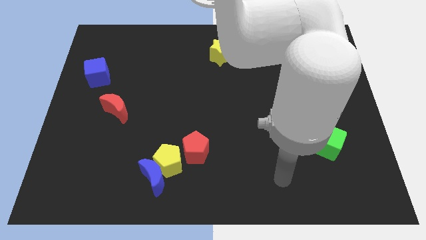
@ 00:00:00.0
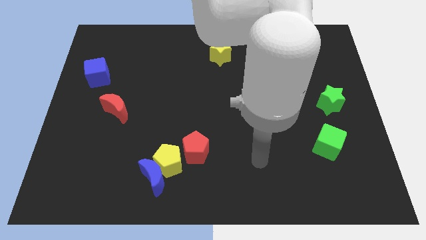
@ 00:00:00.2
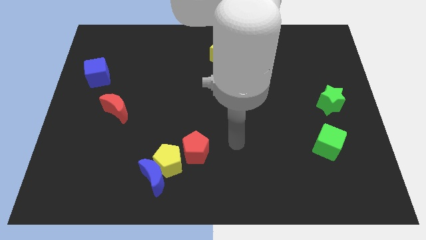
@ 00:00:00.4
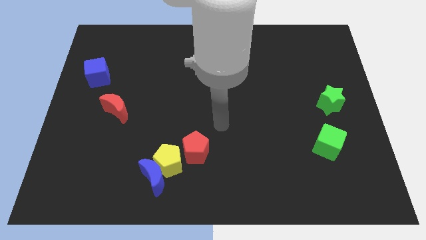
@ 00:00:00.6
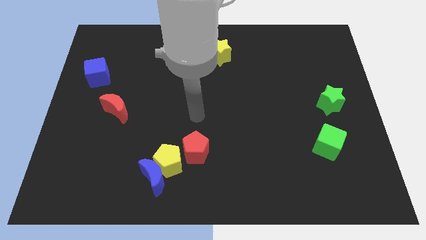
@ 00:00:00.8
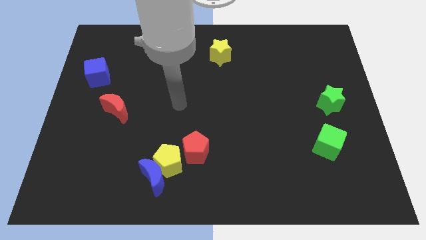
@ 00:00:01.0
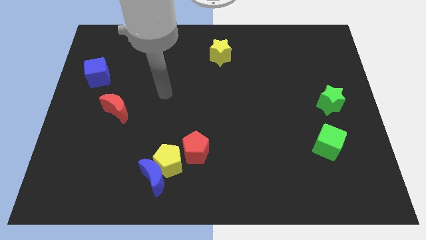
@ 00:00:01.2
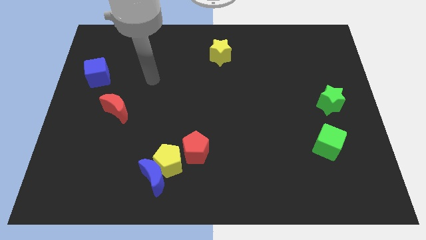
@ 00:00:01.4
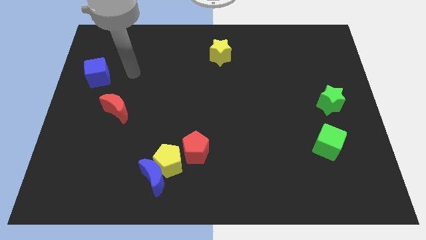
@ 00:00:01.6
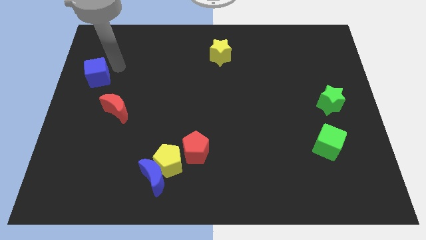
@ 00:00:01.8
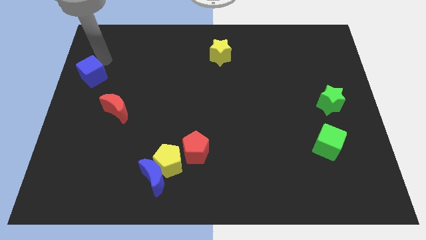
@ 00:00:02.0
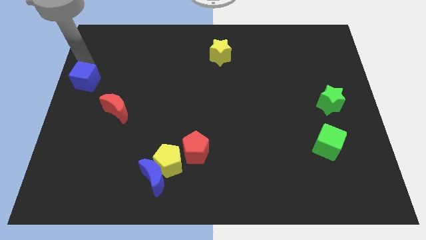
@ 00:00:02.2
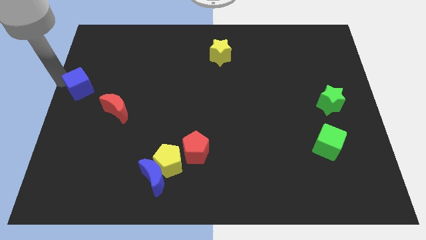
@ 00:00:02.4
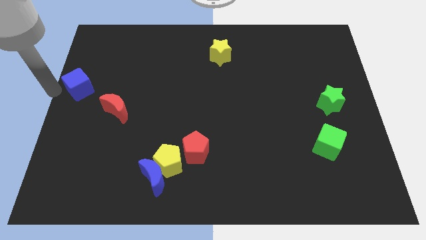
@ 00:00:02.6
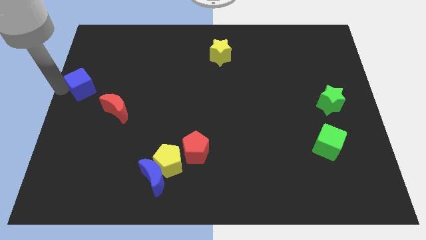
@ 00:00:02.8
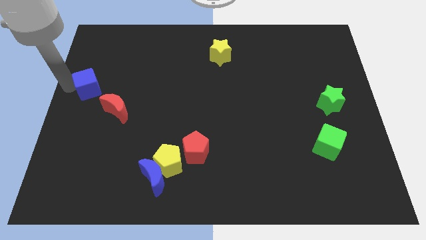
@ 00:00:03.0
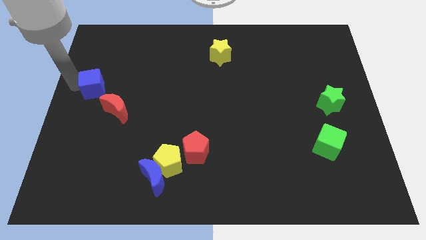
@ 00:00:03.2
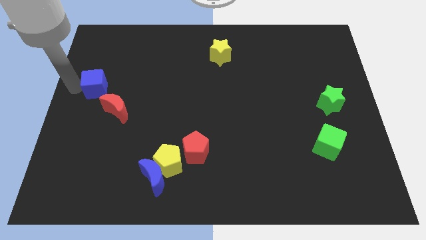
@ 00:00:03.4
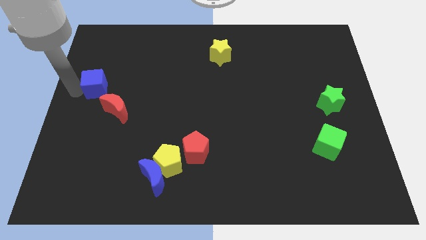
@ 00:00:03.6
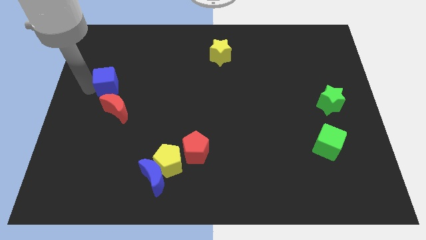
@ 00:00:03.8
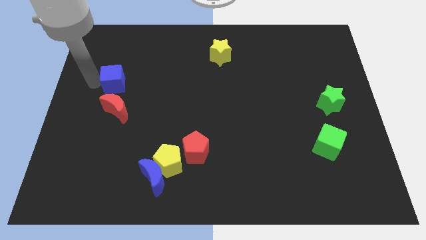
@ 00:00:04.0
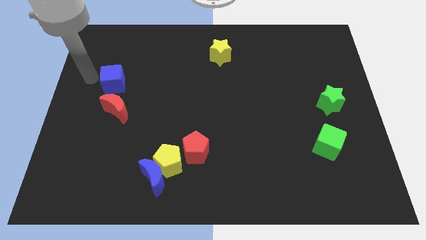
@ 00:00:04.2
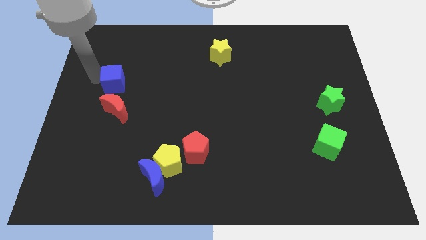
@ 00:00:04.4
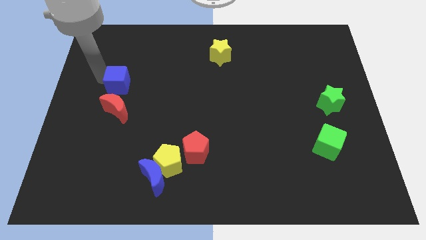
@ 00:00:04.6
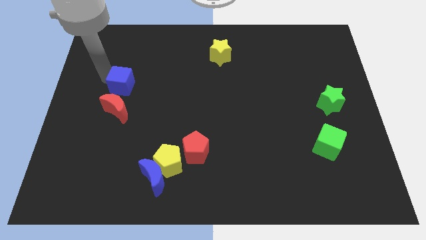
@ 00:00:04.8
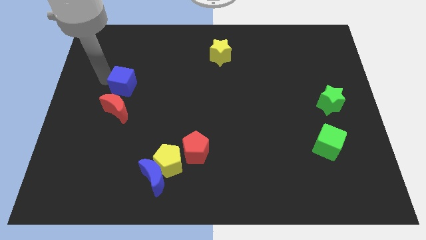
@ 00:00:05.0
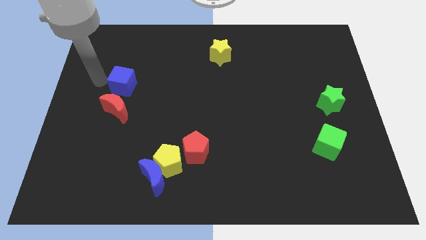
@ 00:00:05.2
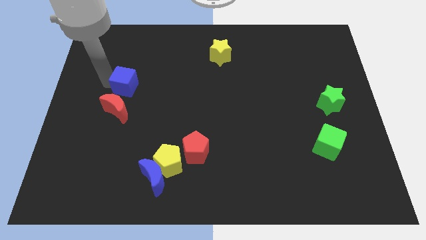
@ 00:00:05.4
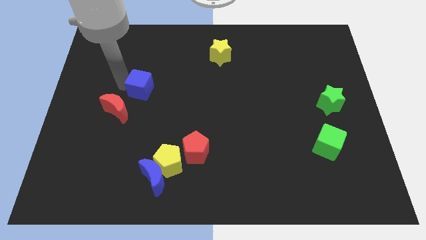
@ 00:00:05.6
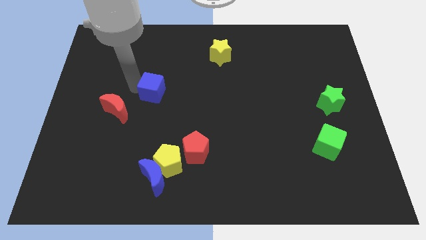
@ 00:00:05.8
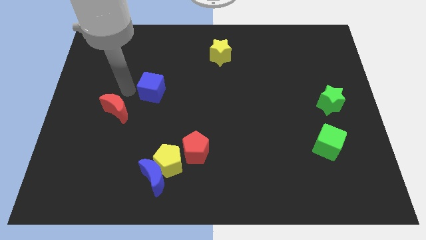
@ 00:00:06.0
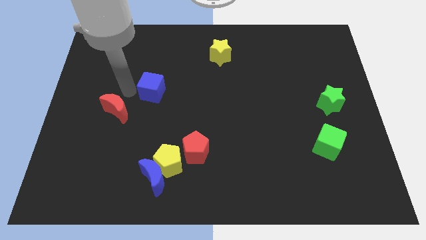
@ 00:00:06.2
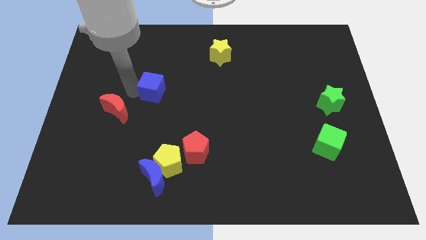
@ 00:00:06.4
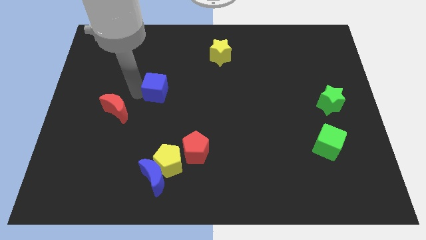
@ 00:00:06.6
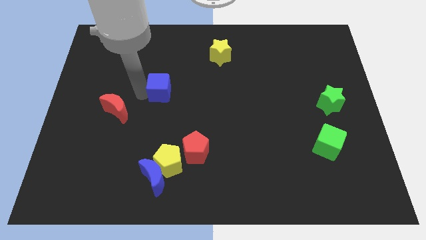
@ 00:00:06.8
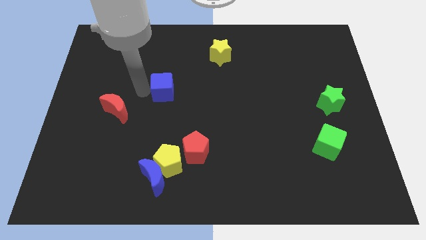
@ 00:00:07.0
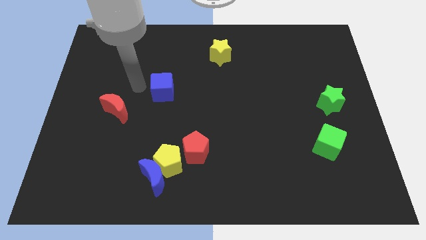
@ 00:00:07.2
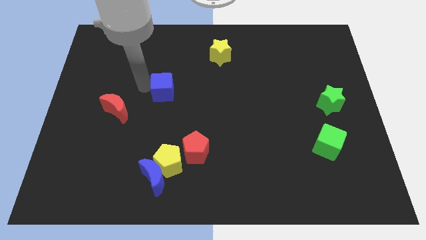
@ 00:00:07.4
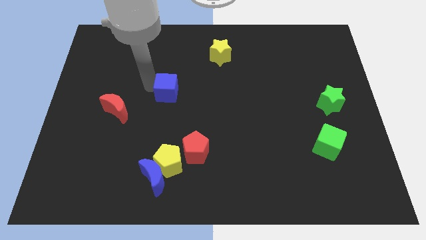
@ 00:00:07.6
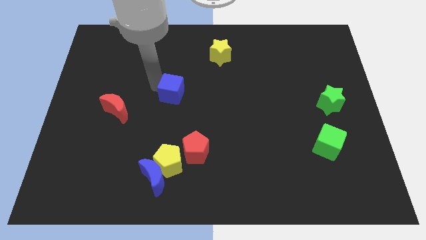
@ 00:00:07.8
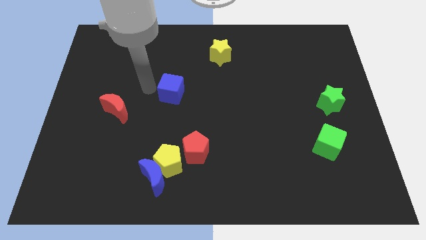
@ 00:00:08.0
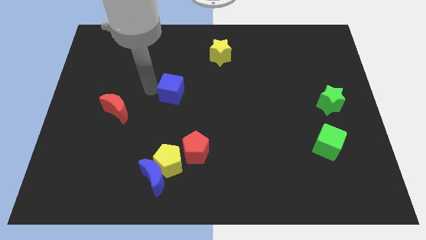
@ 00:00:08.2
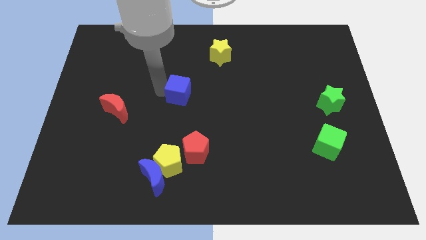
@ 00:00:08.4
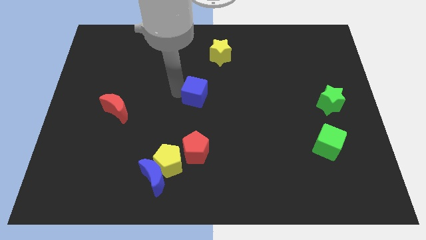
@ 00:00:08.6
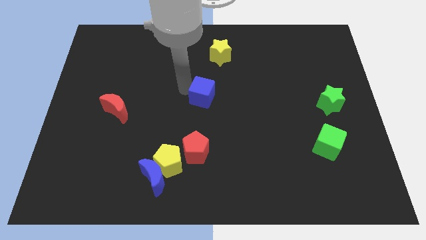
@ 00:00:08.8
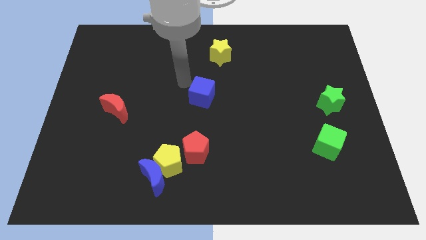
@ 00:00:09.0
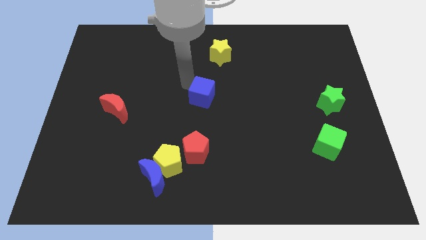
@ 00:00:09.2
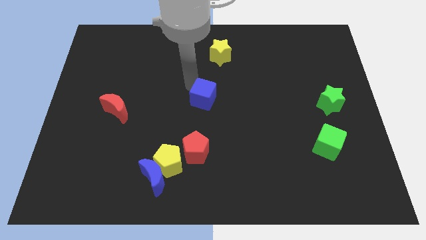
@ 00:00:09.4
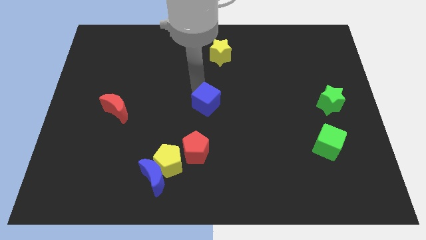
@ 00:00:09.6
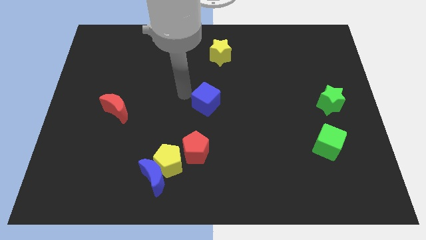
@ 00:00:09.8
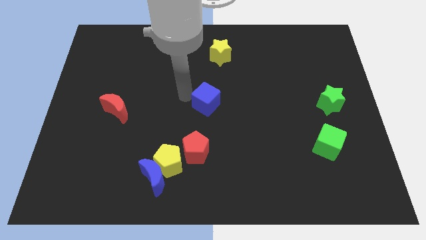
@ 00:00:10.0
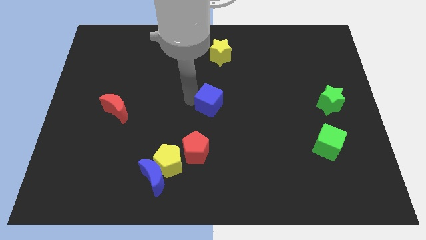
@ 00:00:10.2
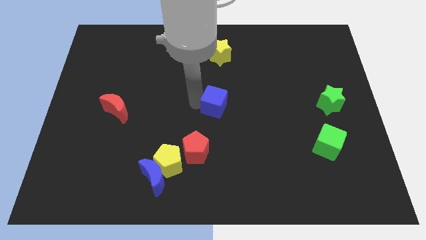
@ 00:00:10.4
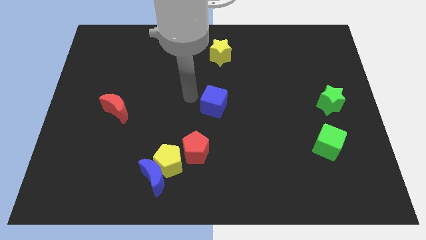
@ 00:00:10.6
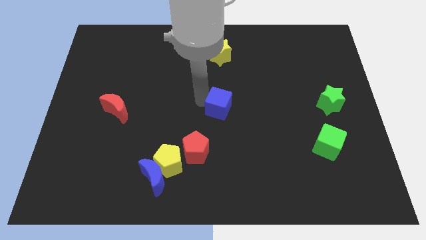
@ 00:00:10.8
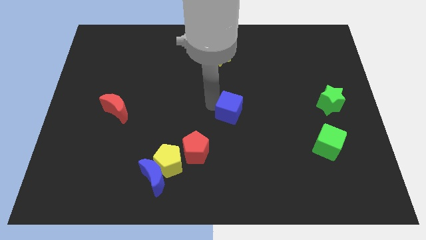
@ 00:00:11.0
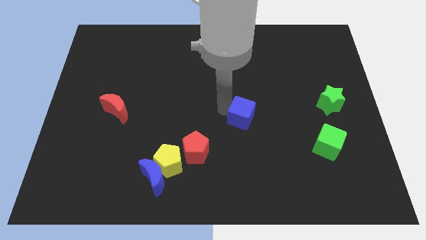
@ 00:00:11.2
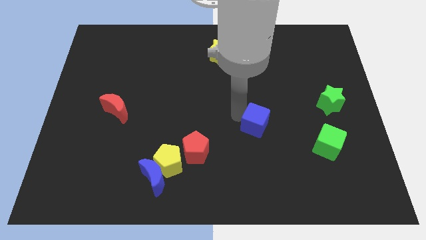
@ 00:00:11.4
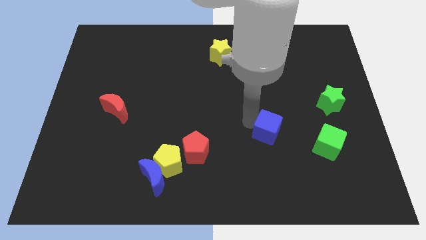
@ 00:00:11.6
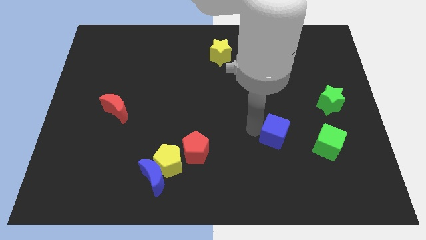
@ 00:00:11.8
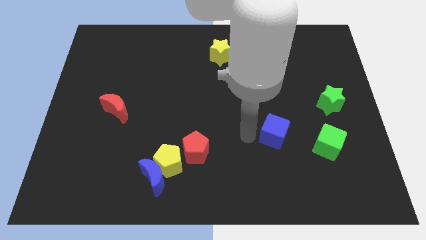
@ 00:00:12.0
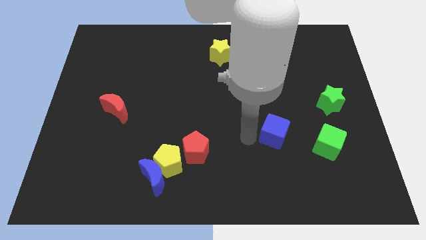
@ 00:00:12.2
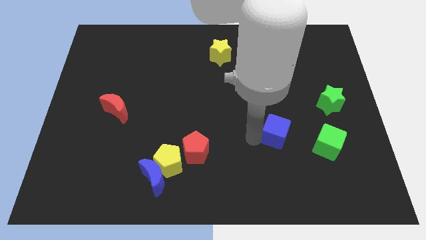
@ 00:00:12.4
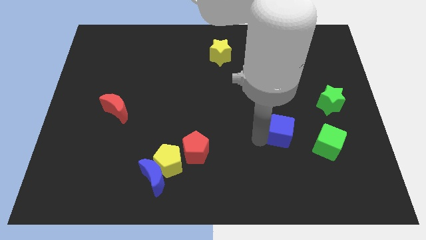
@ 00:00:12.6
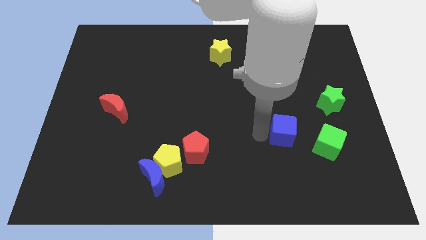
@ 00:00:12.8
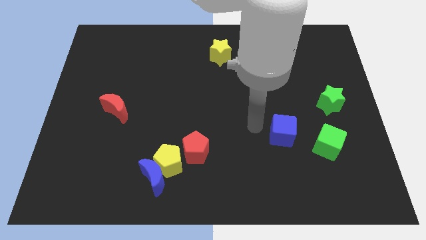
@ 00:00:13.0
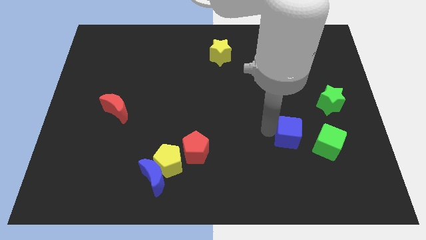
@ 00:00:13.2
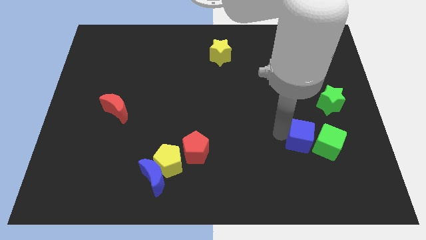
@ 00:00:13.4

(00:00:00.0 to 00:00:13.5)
push the blue cube close to the green cube
